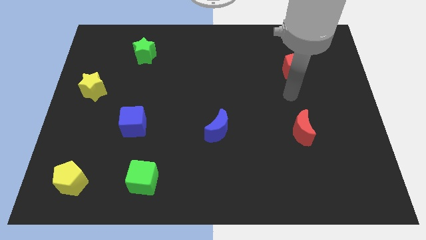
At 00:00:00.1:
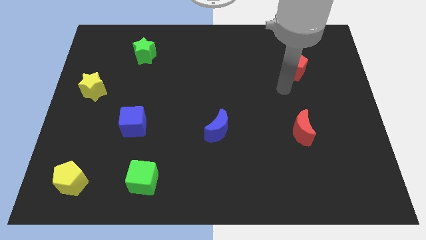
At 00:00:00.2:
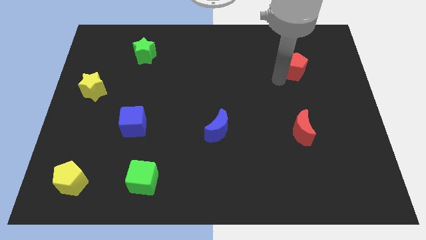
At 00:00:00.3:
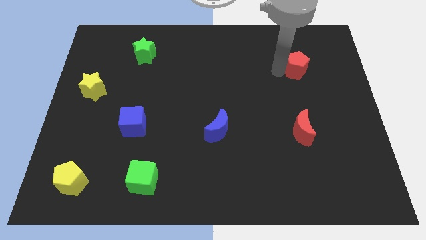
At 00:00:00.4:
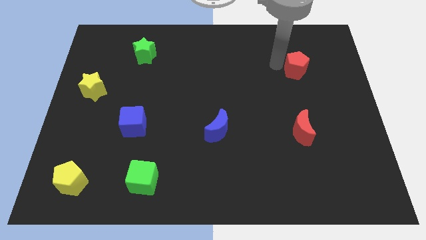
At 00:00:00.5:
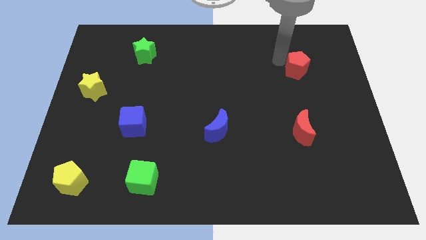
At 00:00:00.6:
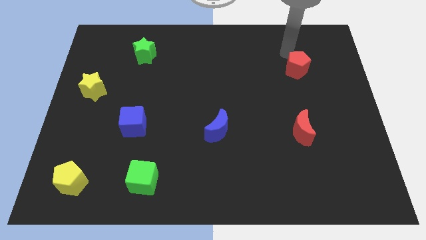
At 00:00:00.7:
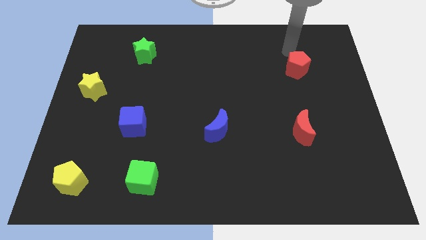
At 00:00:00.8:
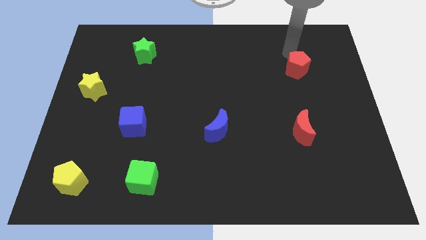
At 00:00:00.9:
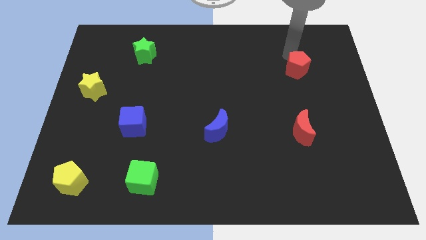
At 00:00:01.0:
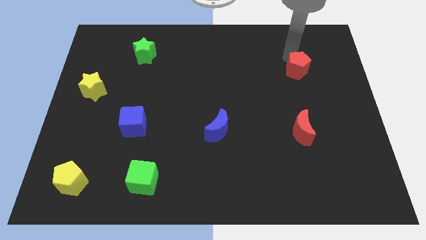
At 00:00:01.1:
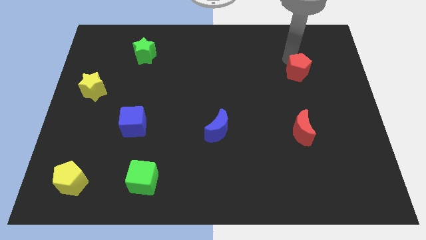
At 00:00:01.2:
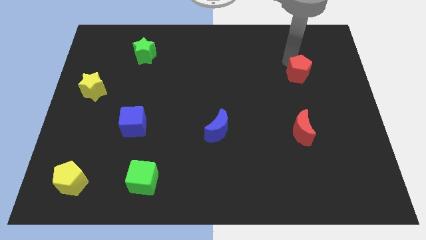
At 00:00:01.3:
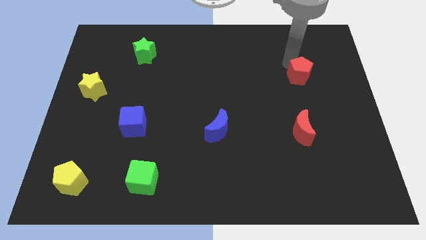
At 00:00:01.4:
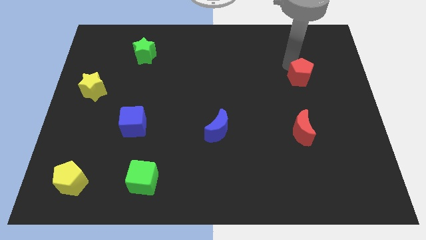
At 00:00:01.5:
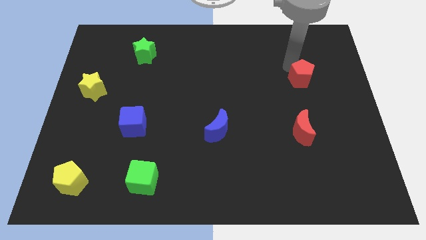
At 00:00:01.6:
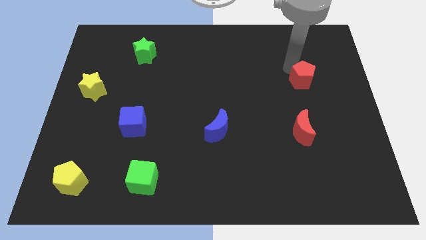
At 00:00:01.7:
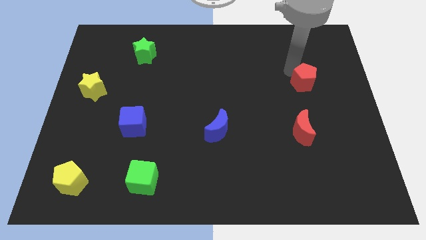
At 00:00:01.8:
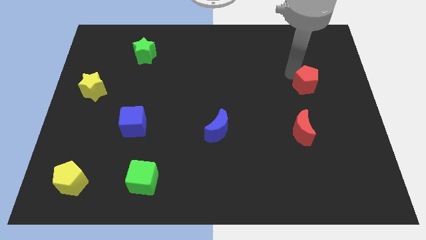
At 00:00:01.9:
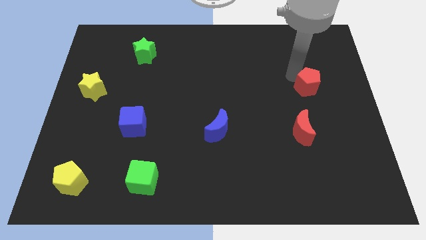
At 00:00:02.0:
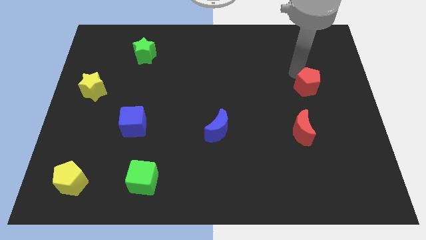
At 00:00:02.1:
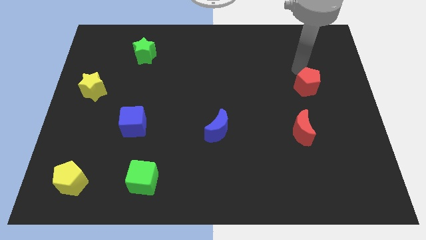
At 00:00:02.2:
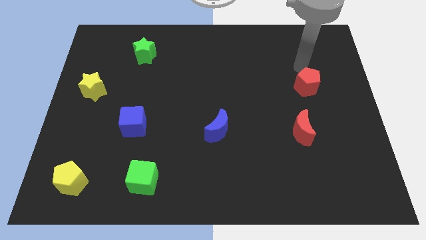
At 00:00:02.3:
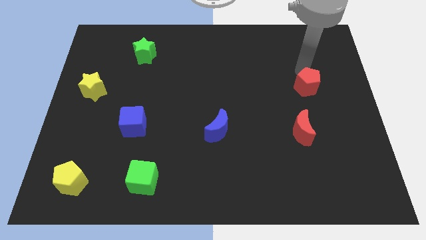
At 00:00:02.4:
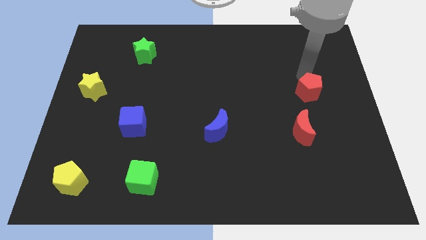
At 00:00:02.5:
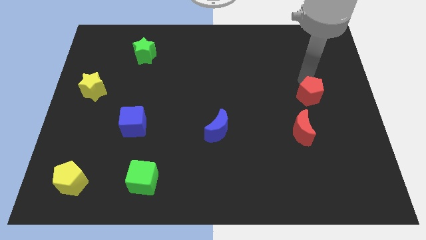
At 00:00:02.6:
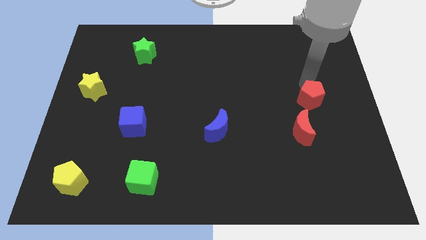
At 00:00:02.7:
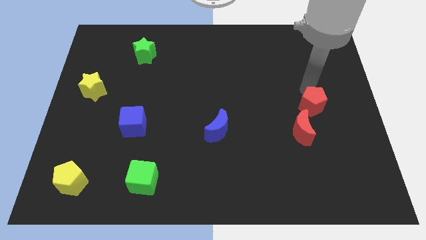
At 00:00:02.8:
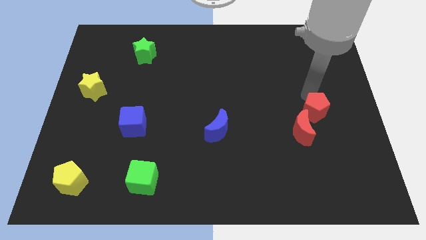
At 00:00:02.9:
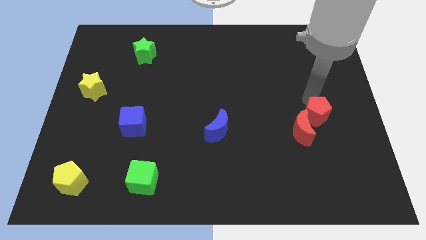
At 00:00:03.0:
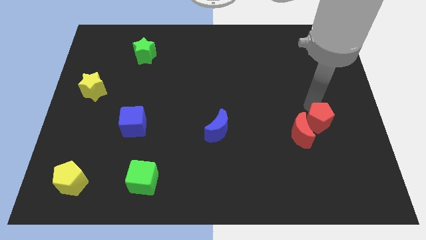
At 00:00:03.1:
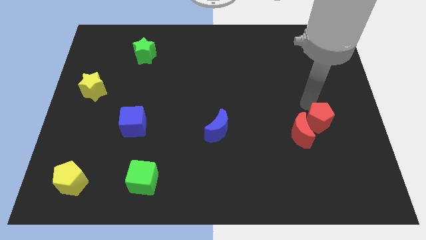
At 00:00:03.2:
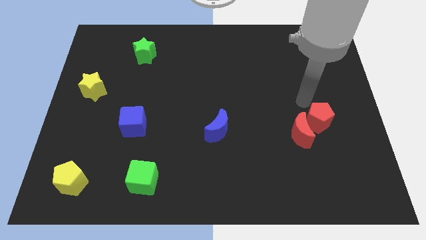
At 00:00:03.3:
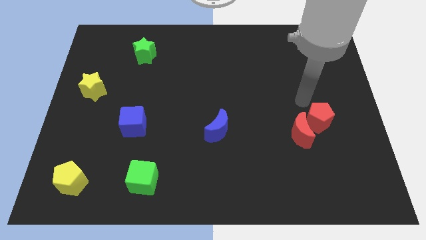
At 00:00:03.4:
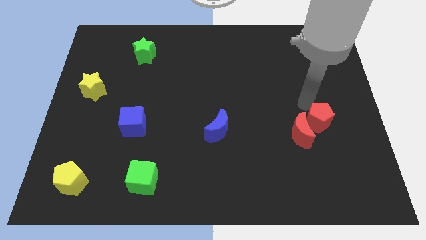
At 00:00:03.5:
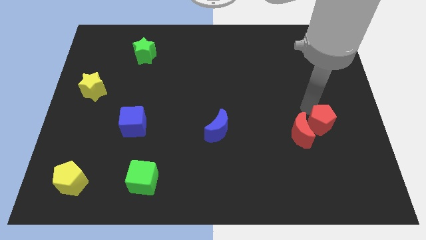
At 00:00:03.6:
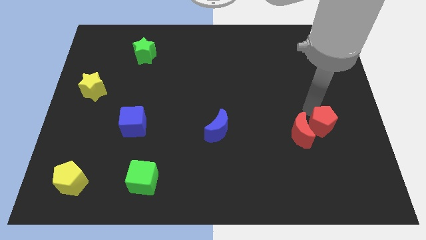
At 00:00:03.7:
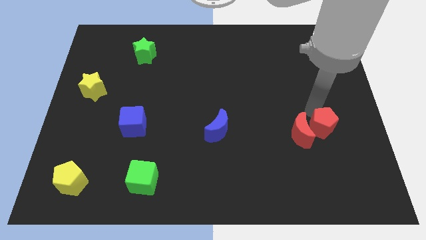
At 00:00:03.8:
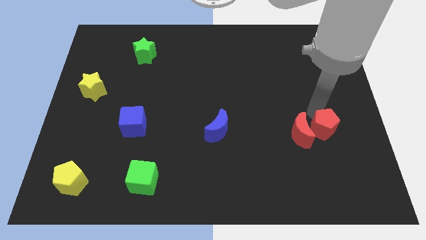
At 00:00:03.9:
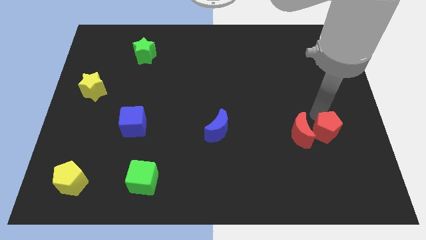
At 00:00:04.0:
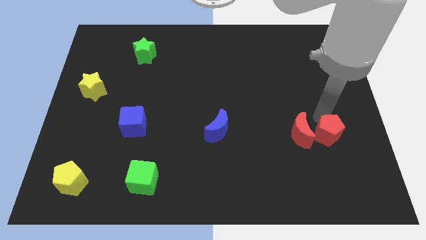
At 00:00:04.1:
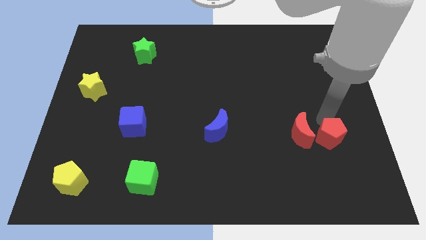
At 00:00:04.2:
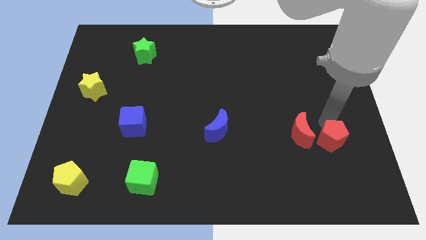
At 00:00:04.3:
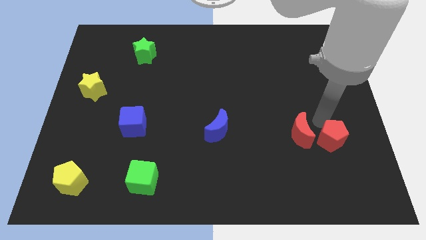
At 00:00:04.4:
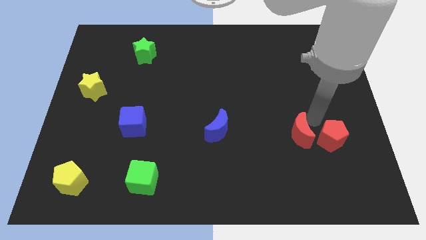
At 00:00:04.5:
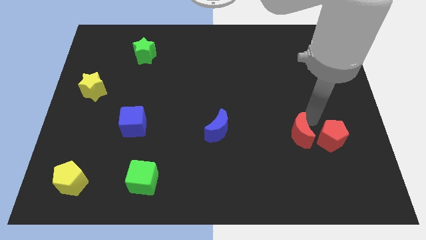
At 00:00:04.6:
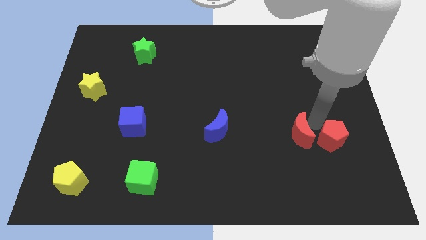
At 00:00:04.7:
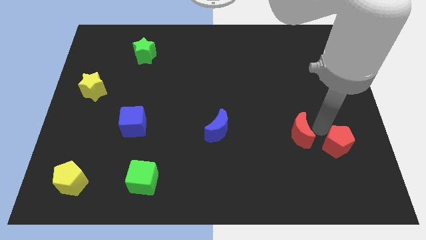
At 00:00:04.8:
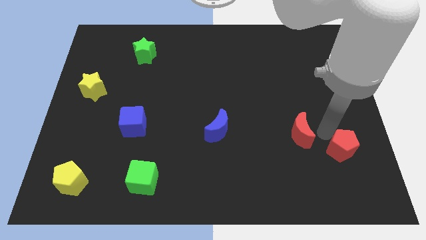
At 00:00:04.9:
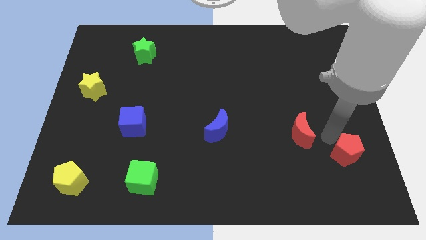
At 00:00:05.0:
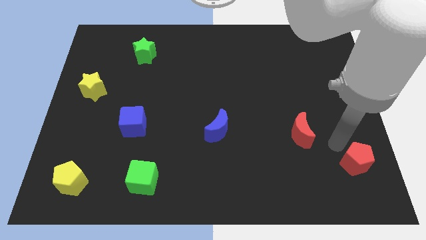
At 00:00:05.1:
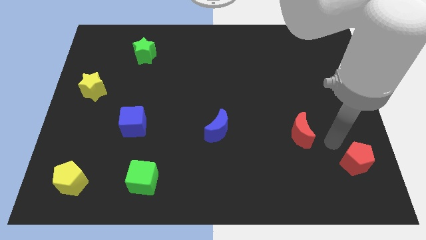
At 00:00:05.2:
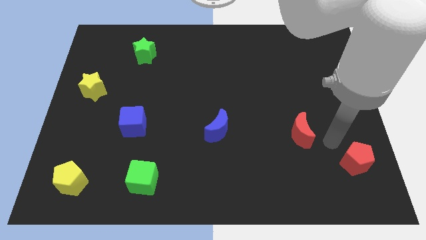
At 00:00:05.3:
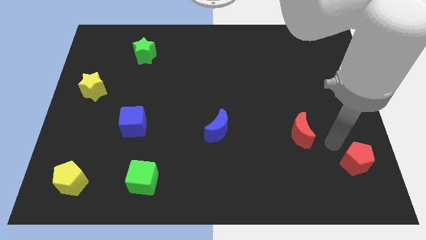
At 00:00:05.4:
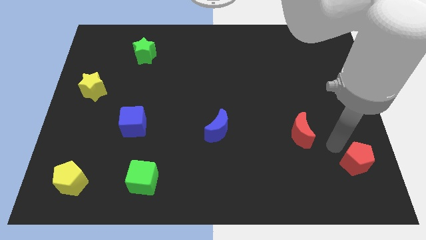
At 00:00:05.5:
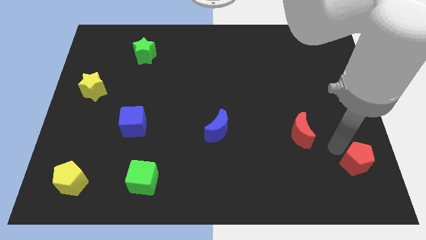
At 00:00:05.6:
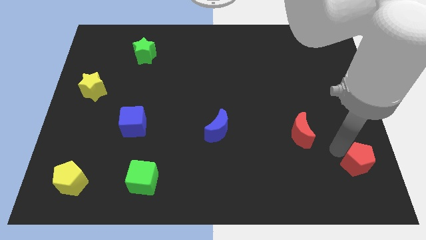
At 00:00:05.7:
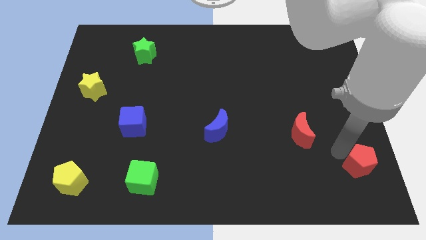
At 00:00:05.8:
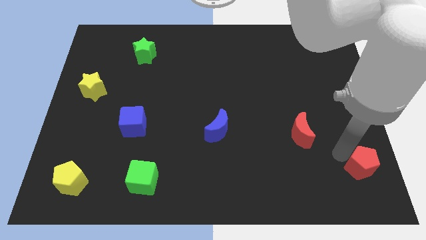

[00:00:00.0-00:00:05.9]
push the red pentagon to the bottom right of the board

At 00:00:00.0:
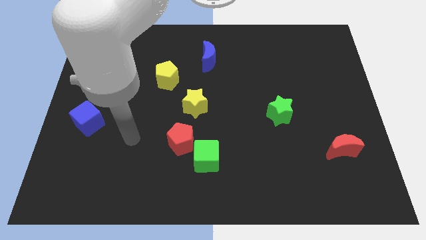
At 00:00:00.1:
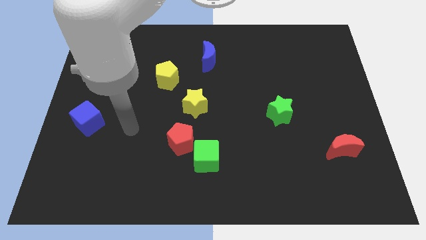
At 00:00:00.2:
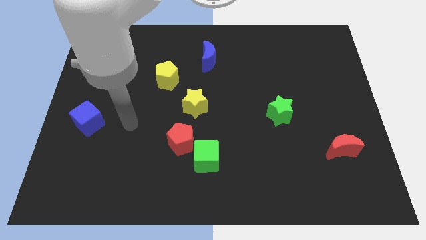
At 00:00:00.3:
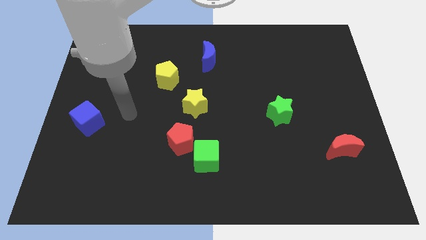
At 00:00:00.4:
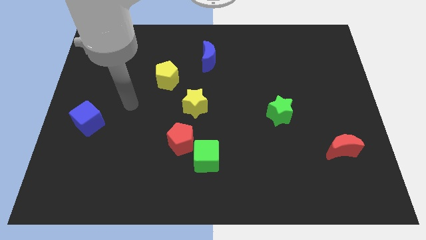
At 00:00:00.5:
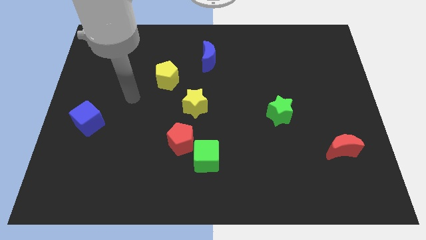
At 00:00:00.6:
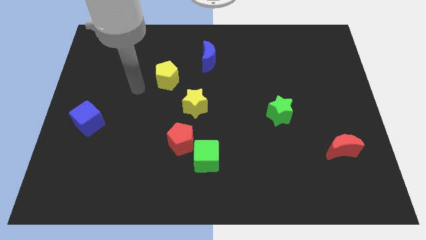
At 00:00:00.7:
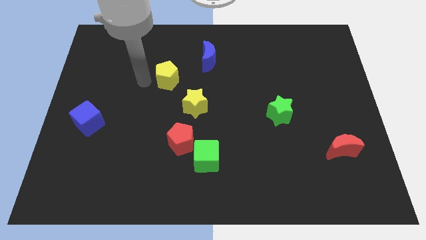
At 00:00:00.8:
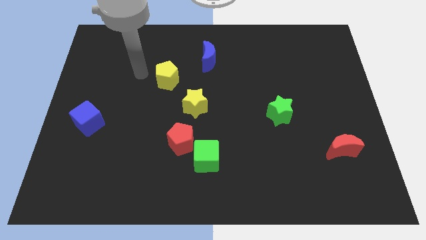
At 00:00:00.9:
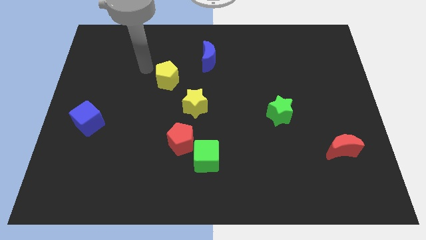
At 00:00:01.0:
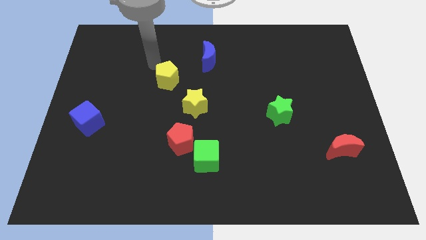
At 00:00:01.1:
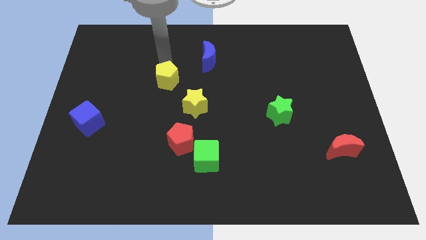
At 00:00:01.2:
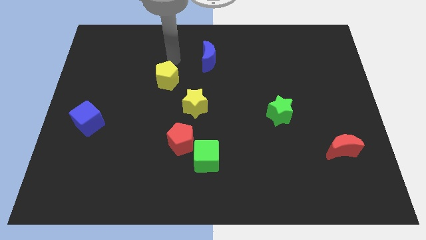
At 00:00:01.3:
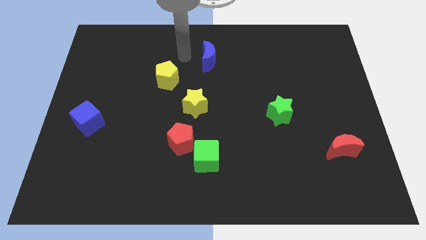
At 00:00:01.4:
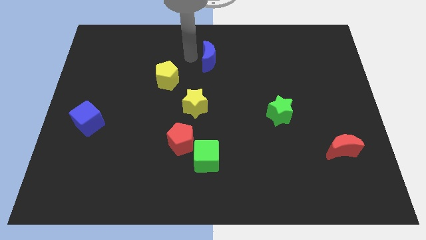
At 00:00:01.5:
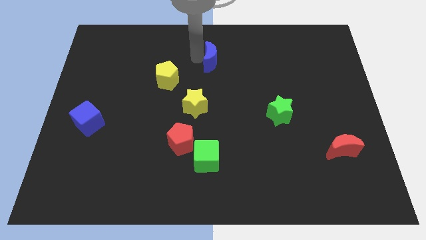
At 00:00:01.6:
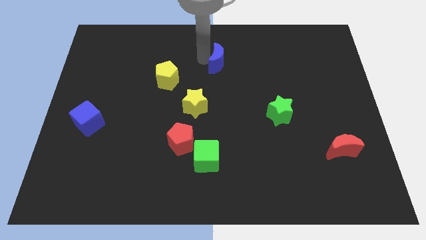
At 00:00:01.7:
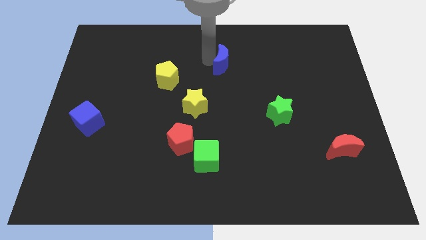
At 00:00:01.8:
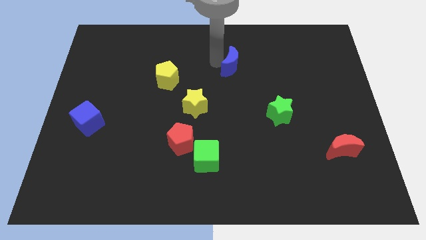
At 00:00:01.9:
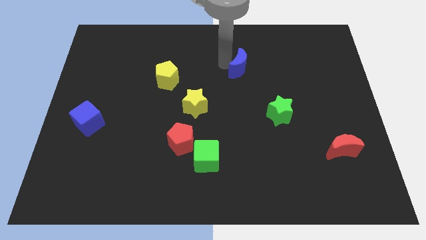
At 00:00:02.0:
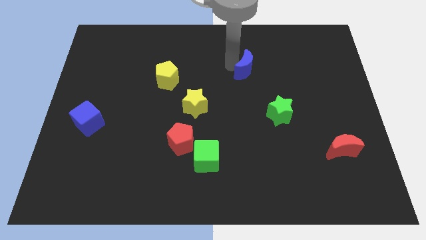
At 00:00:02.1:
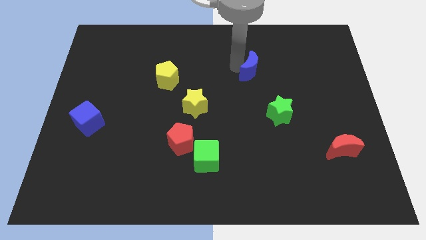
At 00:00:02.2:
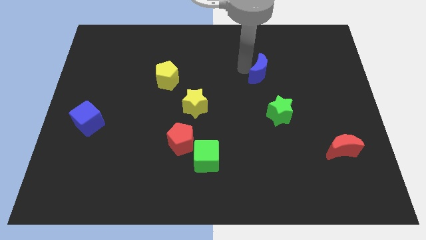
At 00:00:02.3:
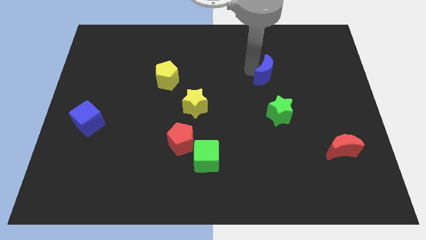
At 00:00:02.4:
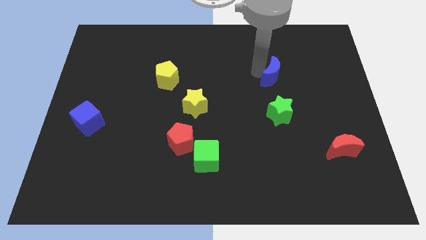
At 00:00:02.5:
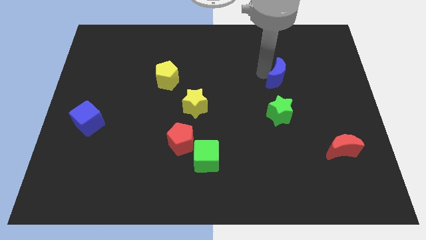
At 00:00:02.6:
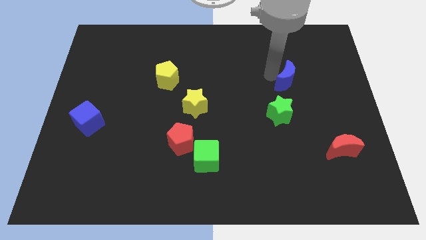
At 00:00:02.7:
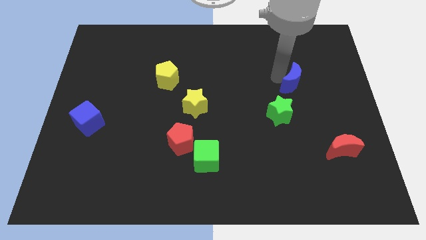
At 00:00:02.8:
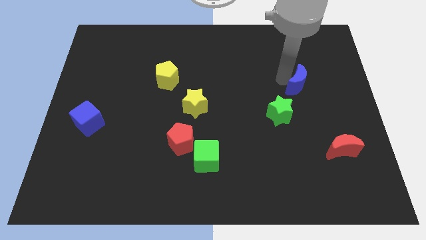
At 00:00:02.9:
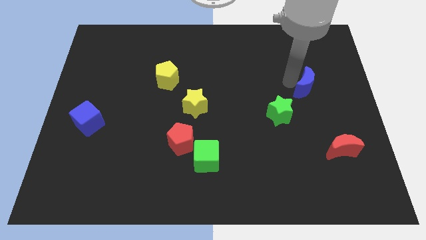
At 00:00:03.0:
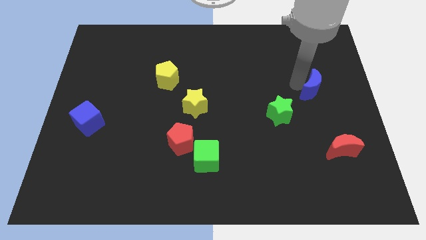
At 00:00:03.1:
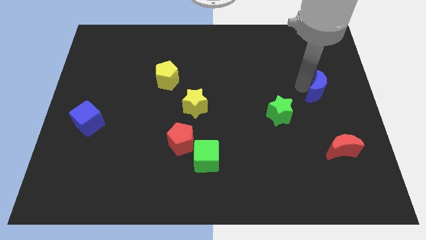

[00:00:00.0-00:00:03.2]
push the blue moon to the right side of the board
